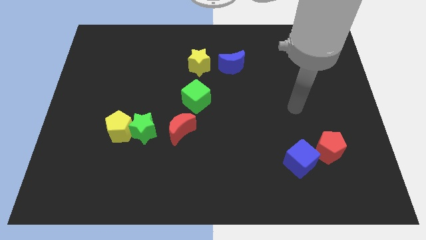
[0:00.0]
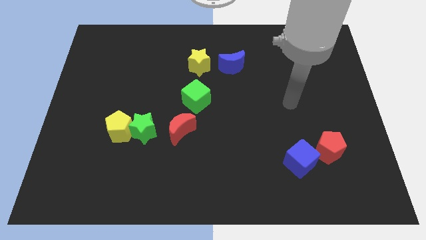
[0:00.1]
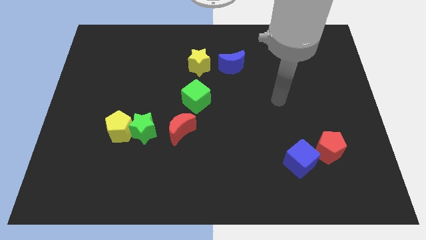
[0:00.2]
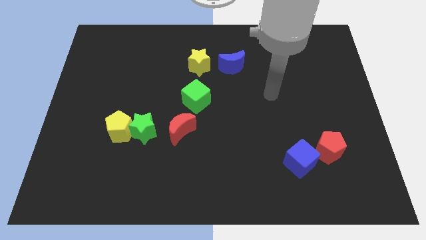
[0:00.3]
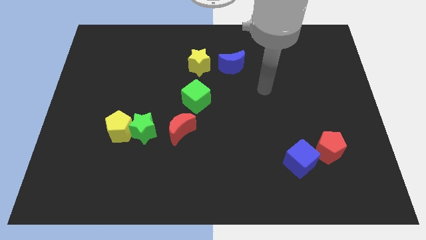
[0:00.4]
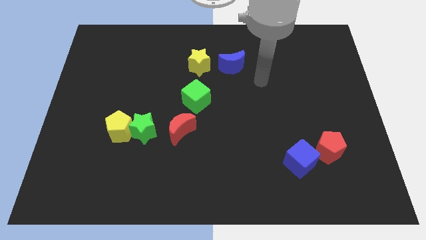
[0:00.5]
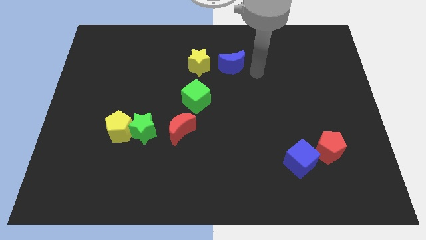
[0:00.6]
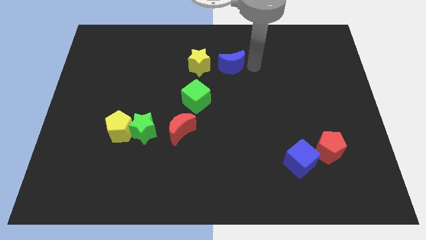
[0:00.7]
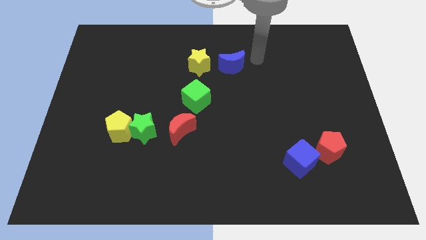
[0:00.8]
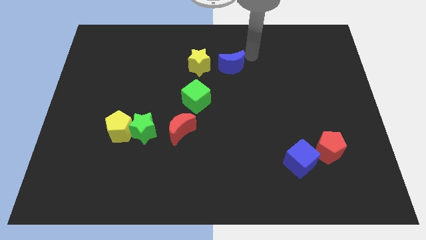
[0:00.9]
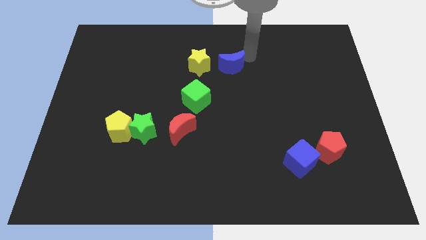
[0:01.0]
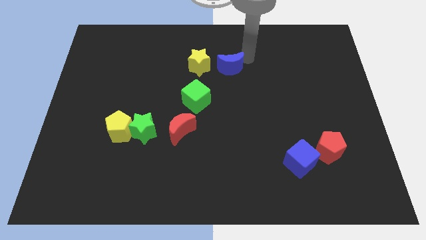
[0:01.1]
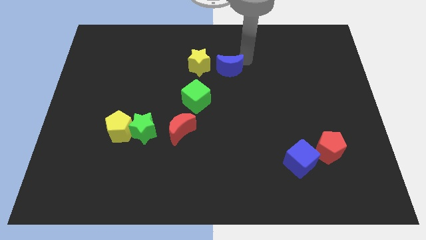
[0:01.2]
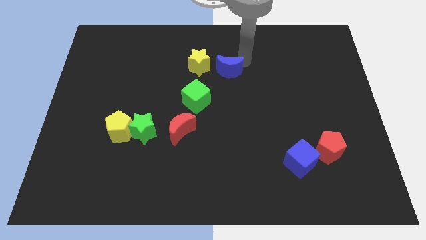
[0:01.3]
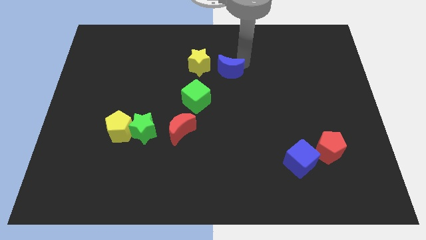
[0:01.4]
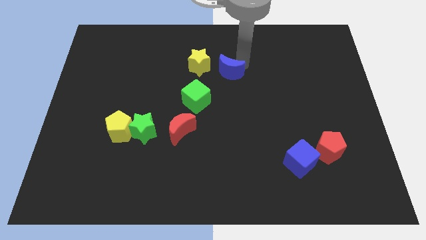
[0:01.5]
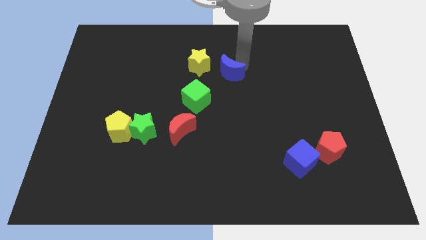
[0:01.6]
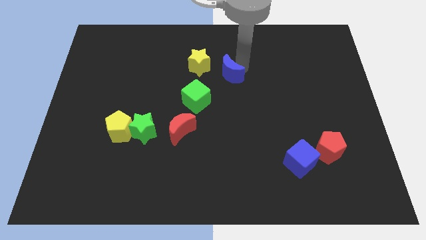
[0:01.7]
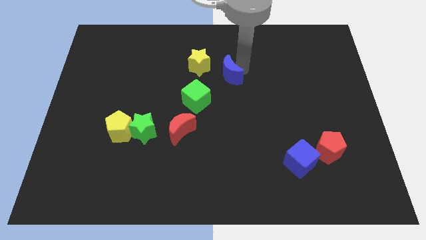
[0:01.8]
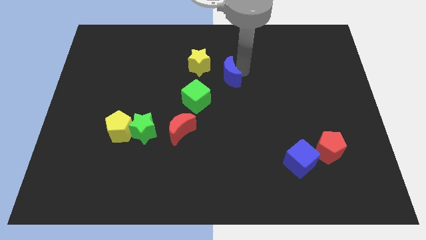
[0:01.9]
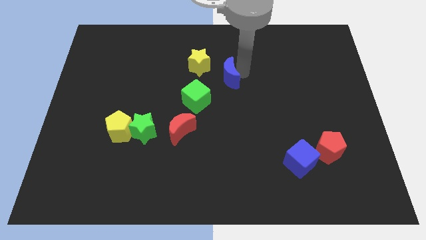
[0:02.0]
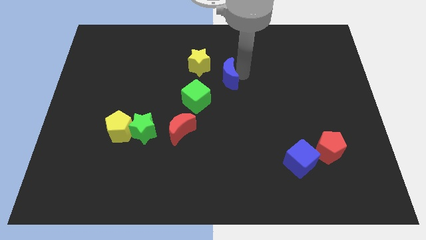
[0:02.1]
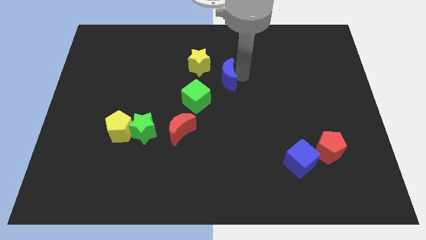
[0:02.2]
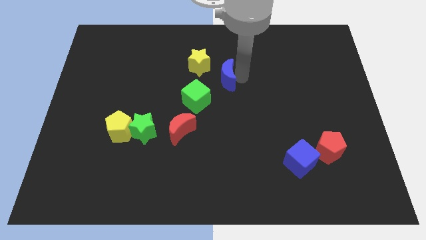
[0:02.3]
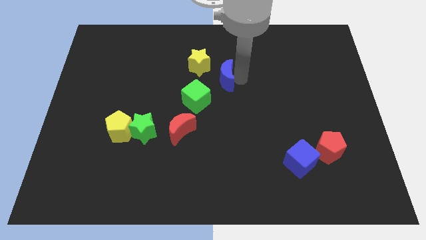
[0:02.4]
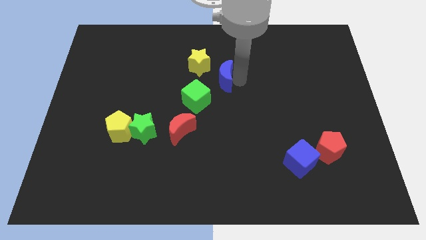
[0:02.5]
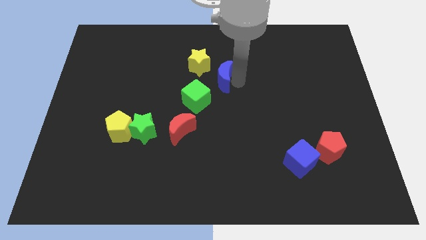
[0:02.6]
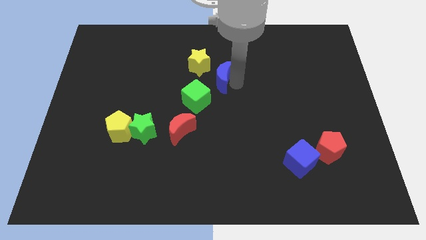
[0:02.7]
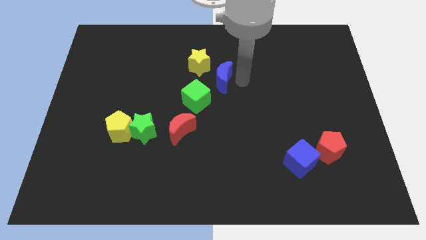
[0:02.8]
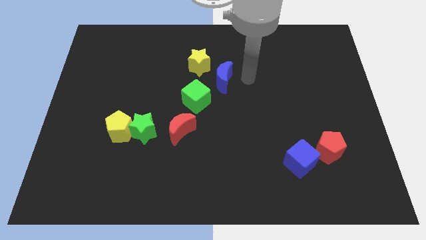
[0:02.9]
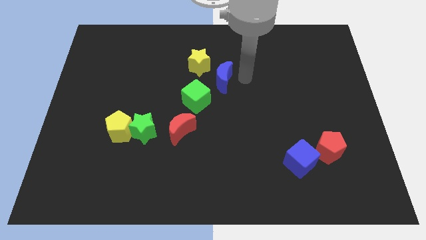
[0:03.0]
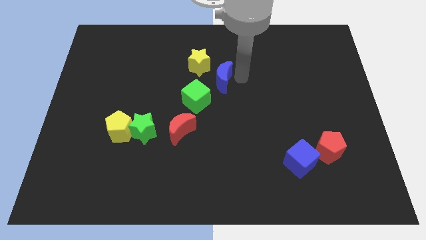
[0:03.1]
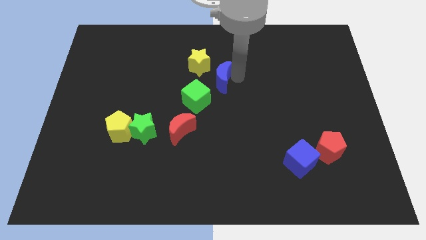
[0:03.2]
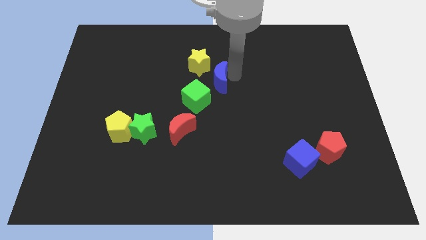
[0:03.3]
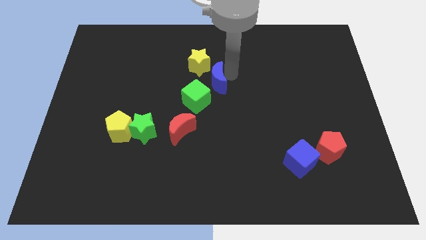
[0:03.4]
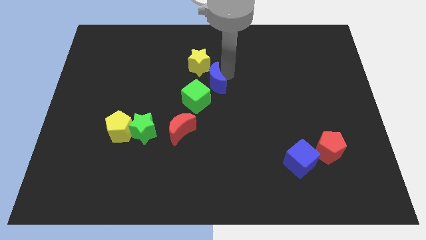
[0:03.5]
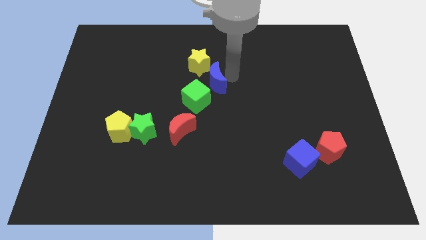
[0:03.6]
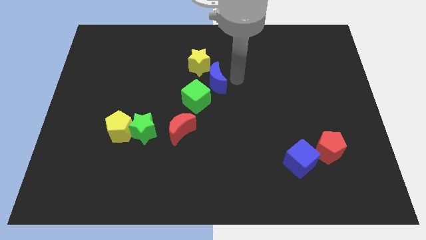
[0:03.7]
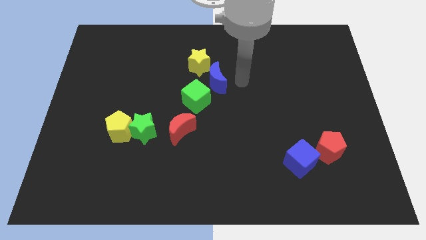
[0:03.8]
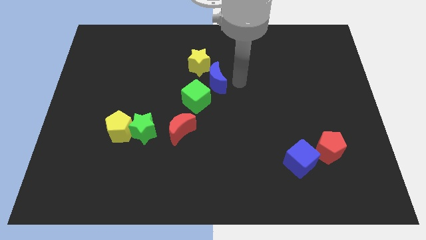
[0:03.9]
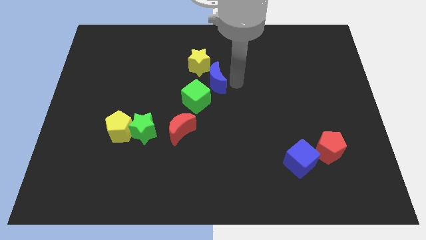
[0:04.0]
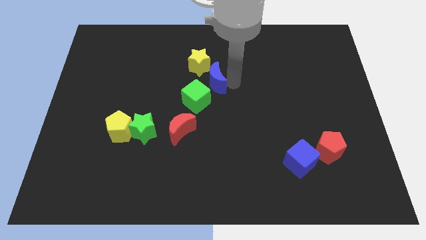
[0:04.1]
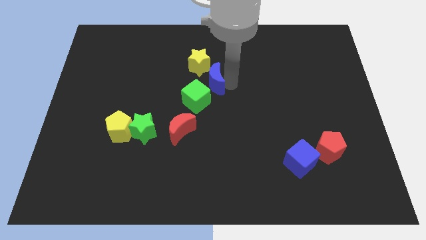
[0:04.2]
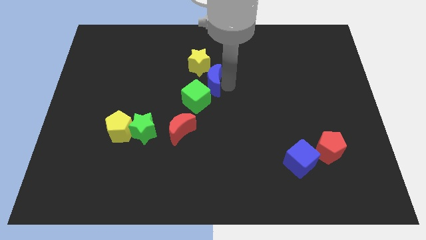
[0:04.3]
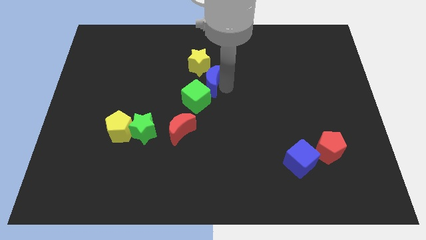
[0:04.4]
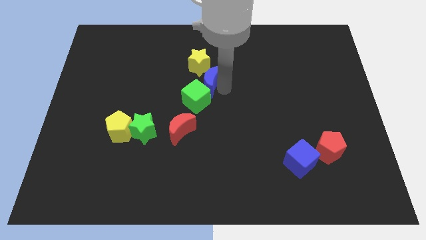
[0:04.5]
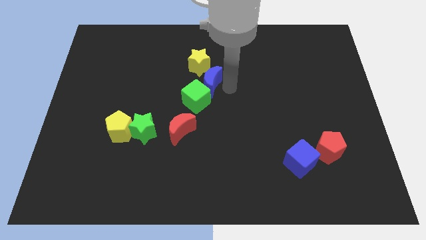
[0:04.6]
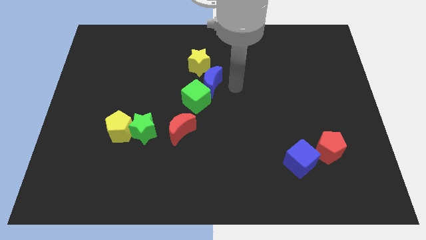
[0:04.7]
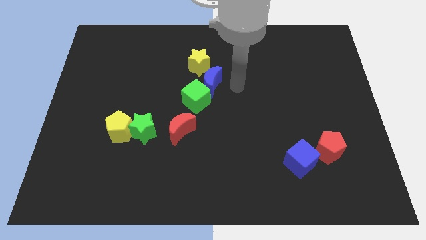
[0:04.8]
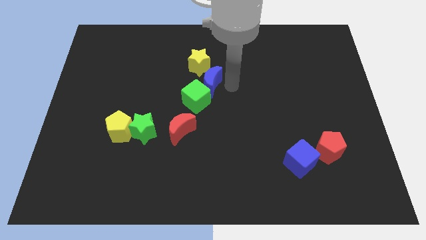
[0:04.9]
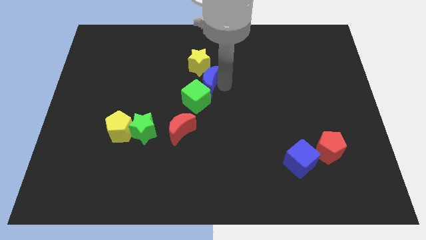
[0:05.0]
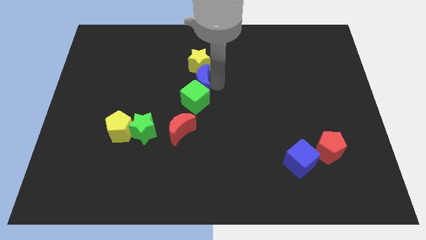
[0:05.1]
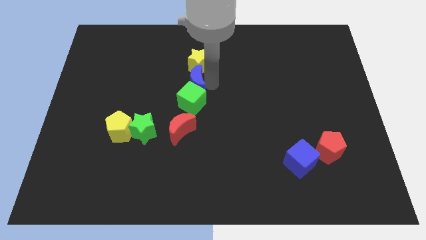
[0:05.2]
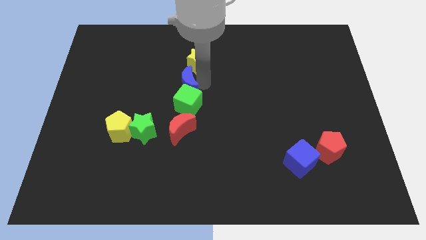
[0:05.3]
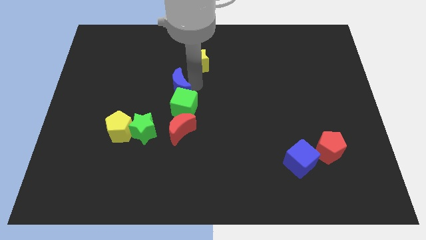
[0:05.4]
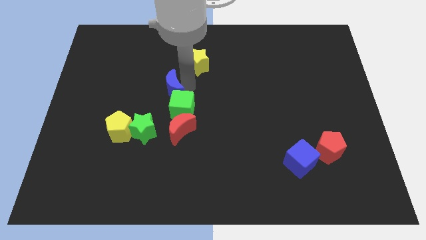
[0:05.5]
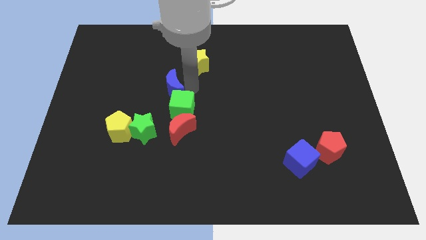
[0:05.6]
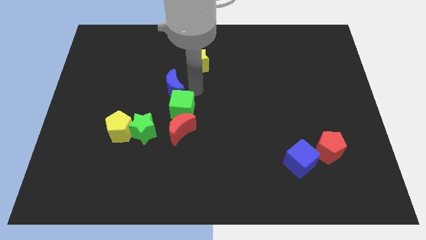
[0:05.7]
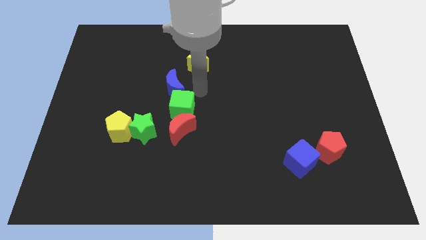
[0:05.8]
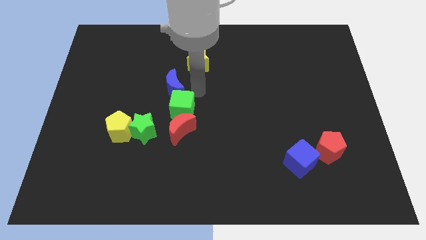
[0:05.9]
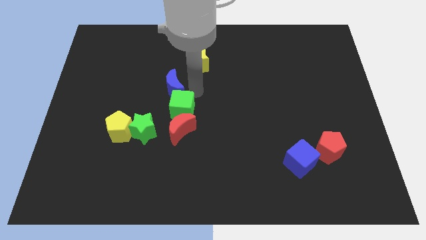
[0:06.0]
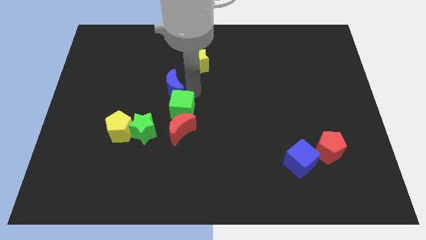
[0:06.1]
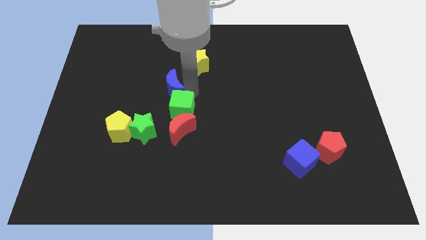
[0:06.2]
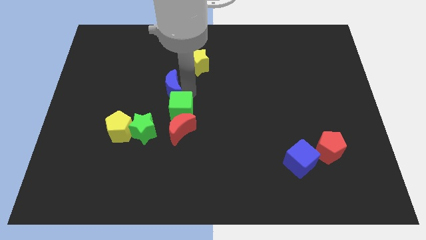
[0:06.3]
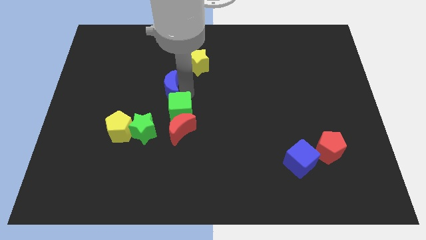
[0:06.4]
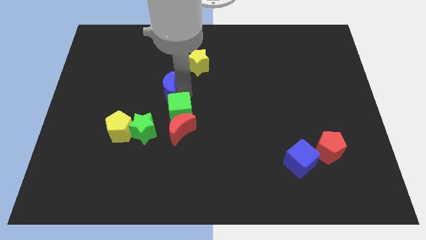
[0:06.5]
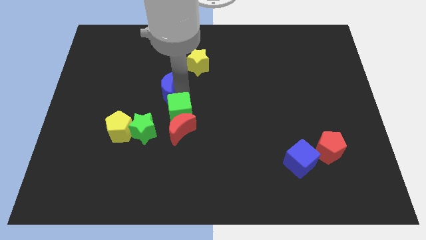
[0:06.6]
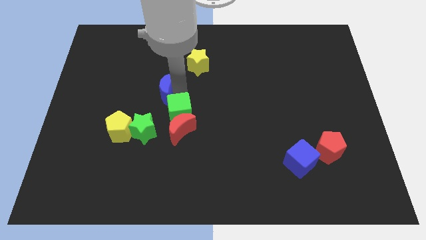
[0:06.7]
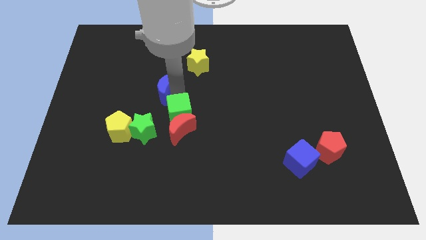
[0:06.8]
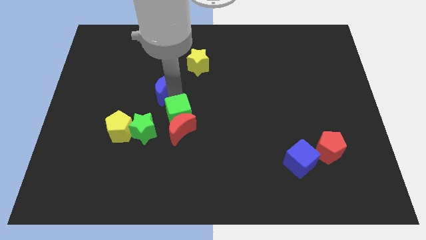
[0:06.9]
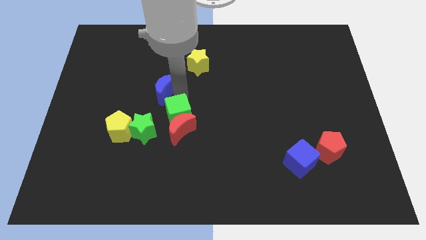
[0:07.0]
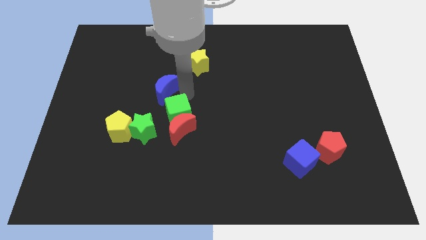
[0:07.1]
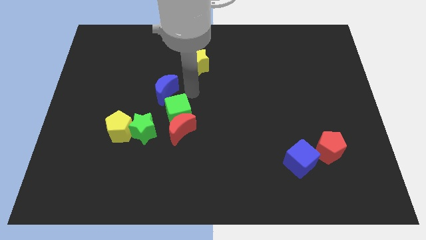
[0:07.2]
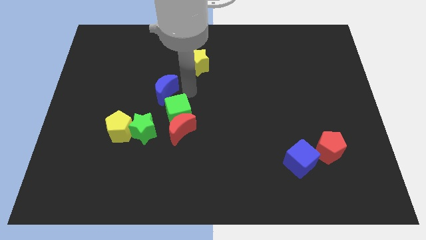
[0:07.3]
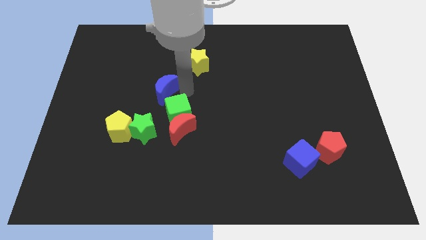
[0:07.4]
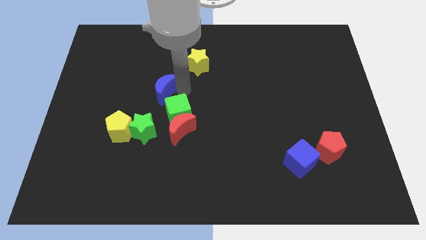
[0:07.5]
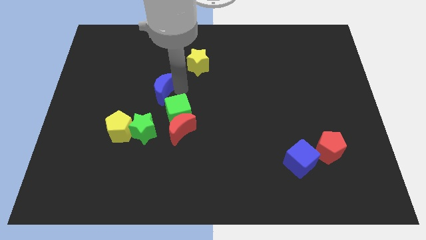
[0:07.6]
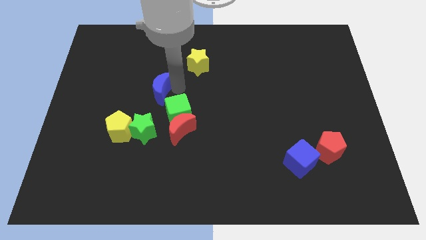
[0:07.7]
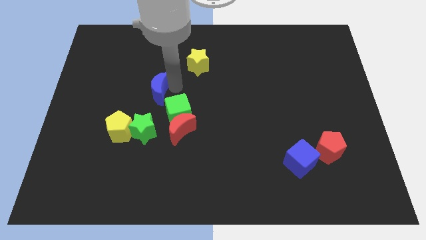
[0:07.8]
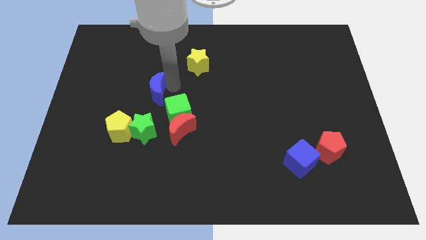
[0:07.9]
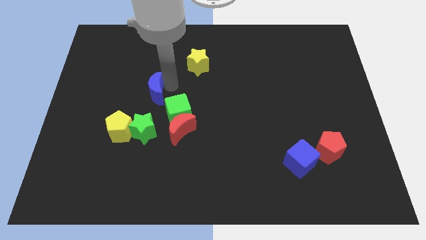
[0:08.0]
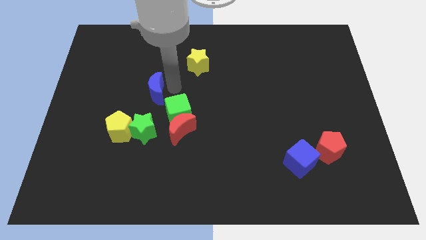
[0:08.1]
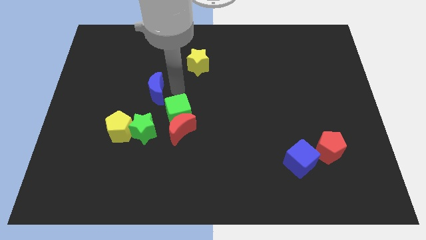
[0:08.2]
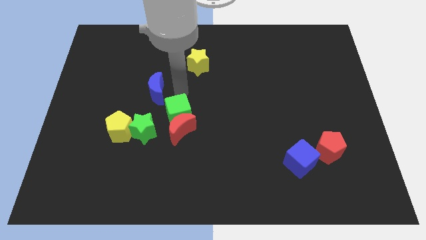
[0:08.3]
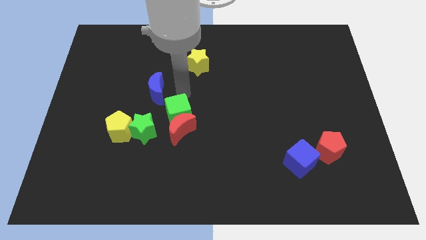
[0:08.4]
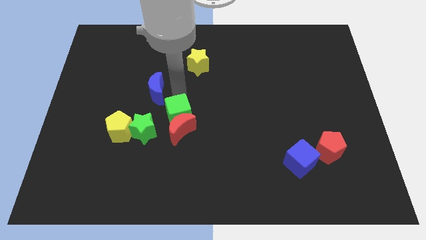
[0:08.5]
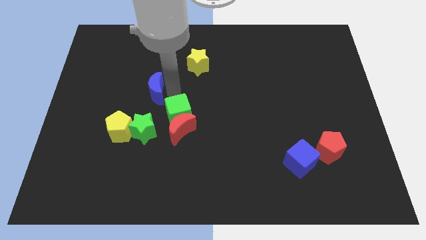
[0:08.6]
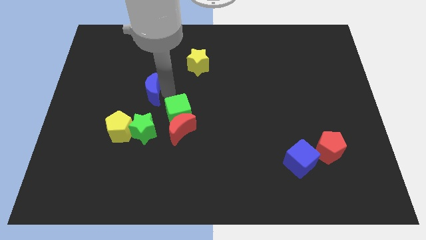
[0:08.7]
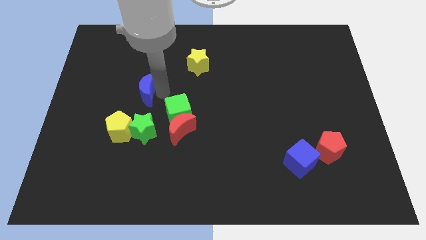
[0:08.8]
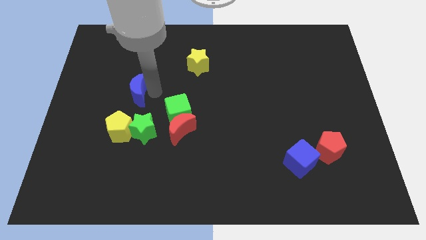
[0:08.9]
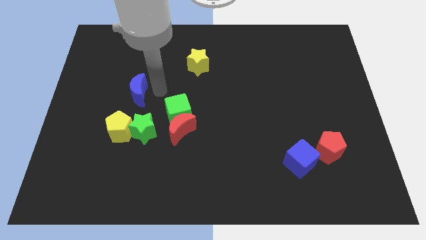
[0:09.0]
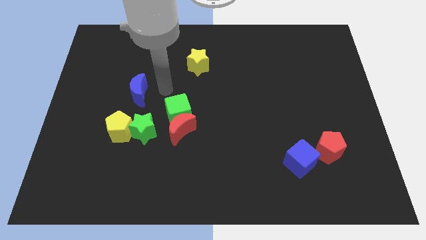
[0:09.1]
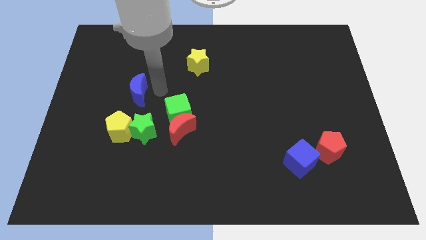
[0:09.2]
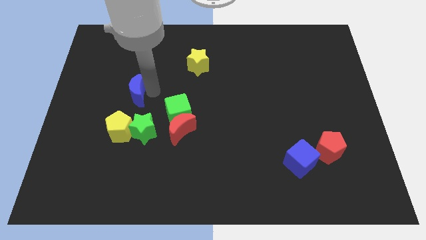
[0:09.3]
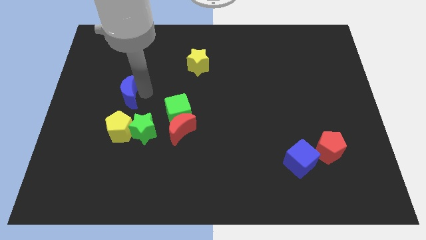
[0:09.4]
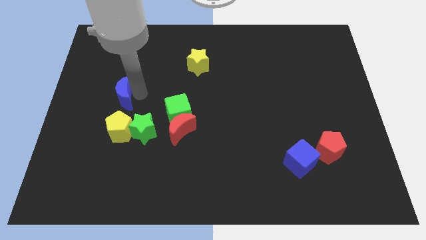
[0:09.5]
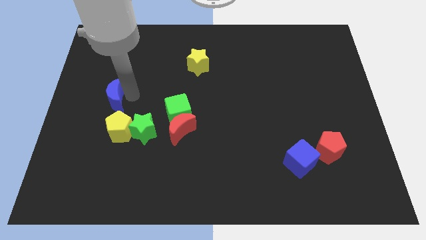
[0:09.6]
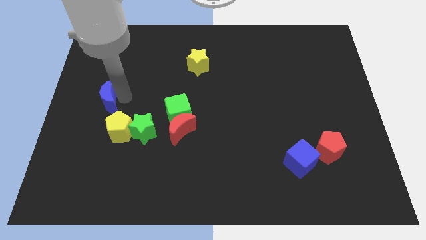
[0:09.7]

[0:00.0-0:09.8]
push the blue moon to the left side
